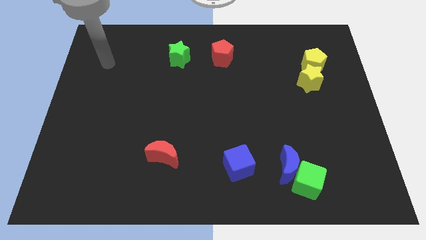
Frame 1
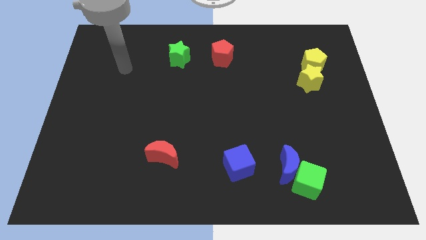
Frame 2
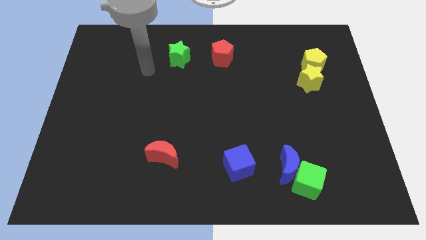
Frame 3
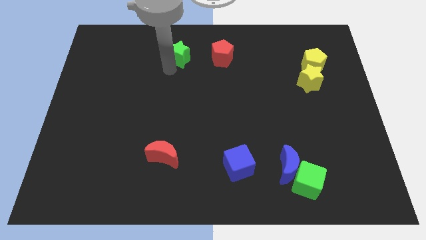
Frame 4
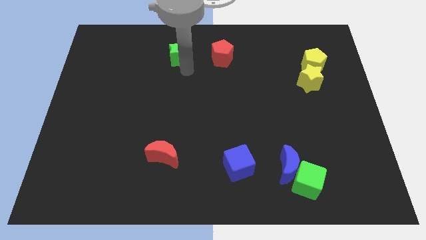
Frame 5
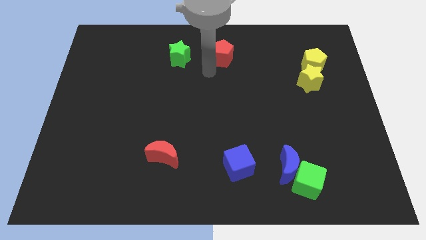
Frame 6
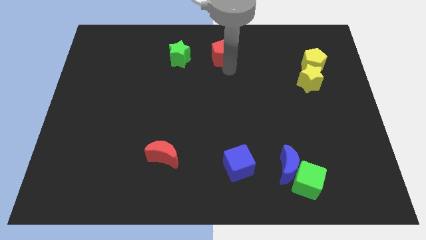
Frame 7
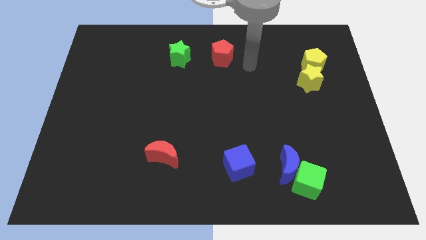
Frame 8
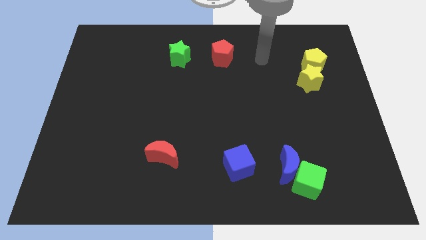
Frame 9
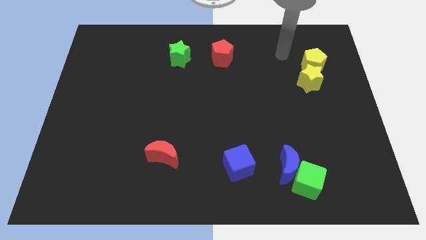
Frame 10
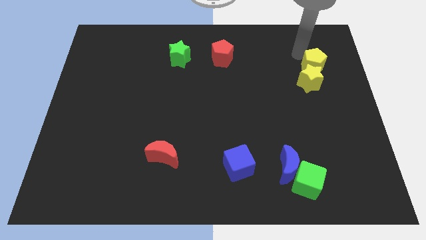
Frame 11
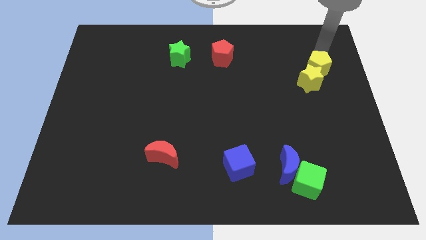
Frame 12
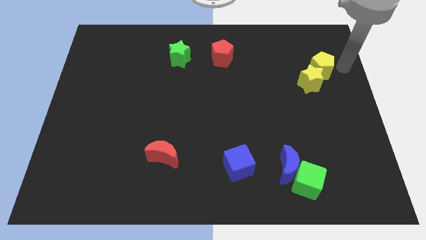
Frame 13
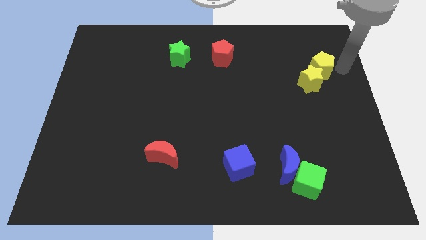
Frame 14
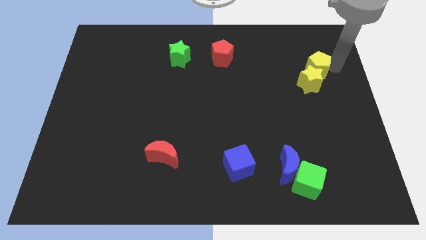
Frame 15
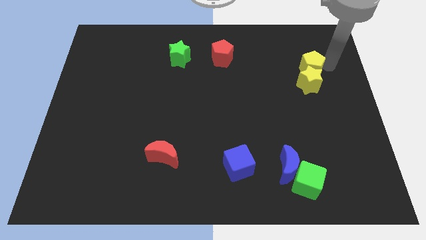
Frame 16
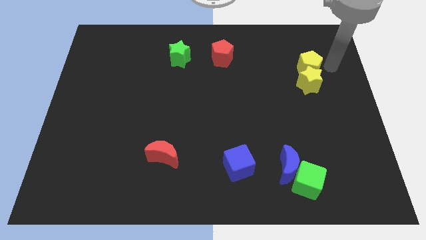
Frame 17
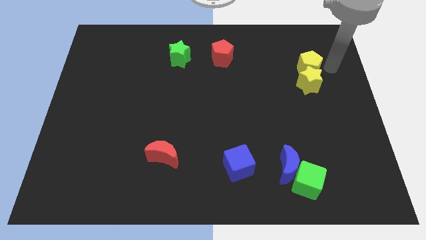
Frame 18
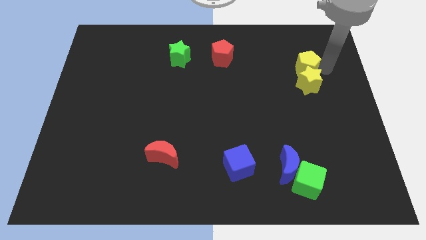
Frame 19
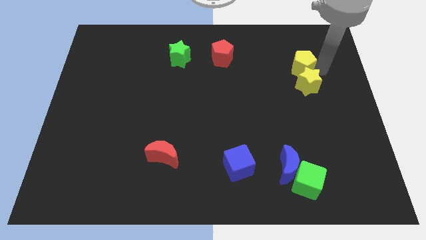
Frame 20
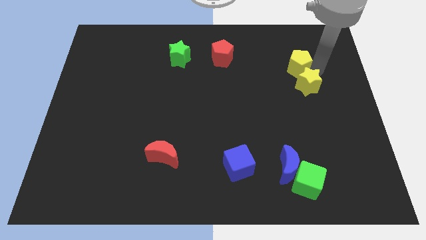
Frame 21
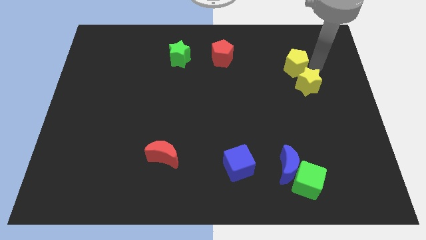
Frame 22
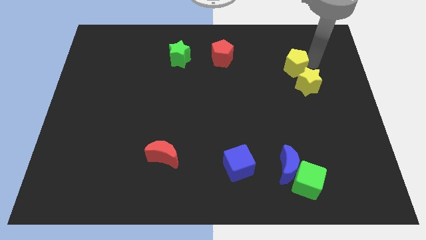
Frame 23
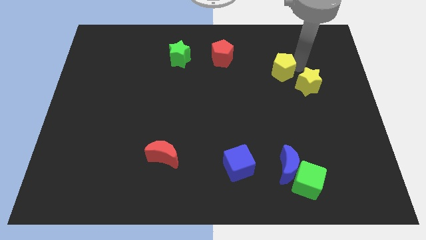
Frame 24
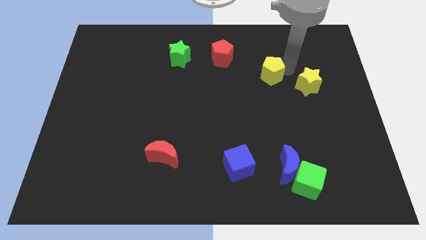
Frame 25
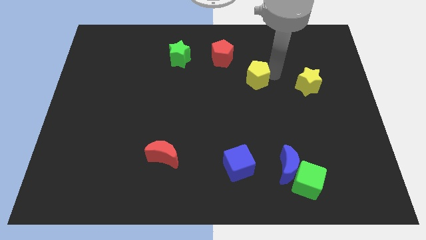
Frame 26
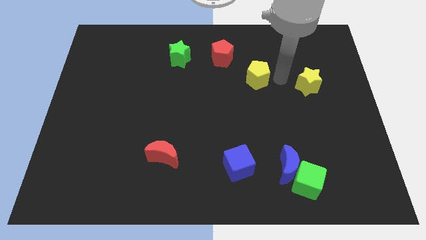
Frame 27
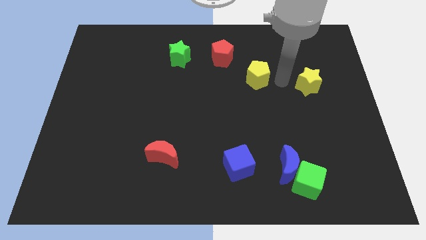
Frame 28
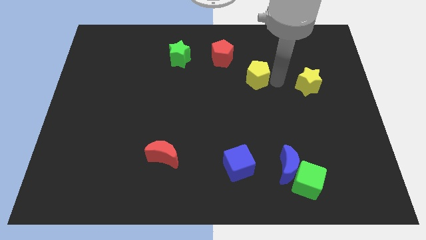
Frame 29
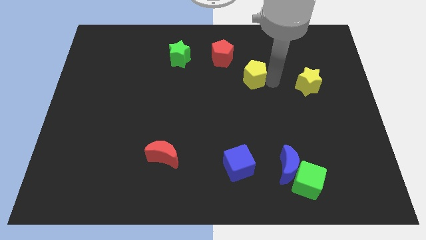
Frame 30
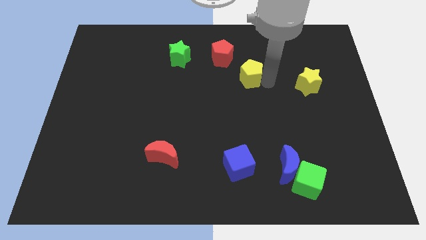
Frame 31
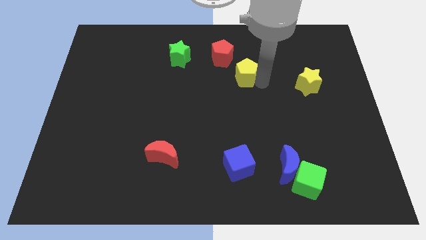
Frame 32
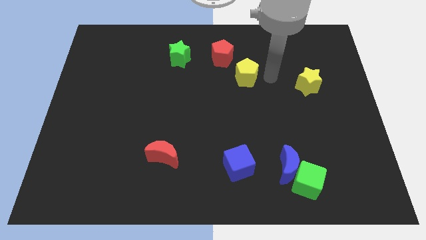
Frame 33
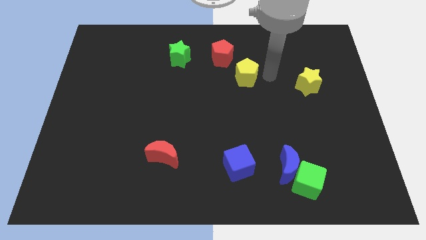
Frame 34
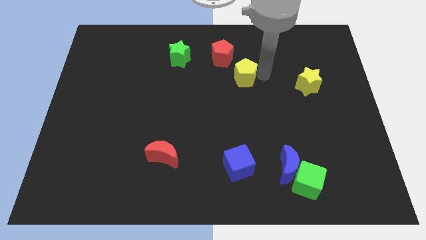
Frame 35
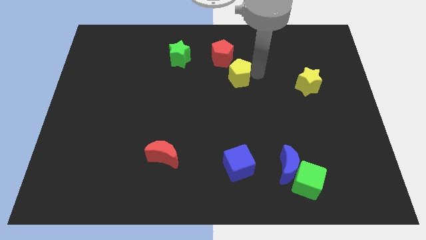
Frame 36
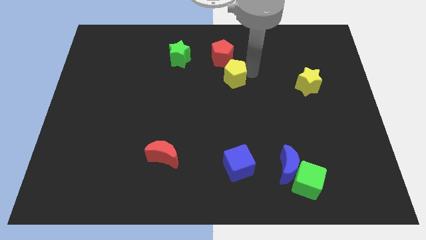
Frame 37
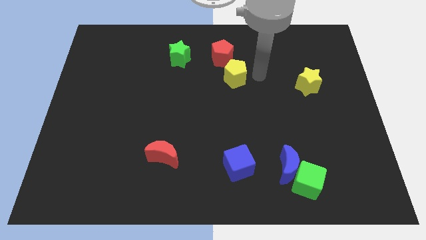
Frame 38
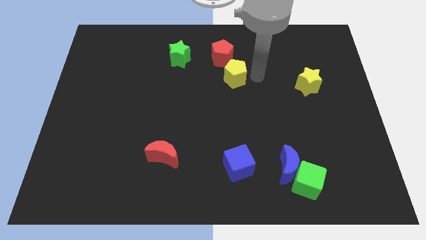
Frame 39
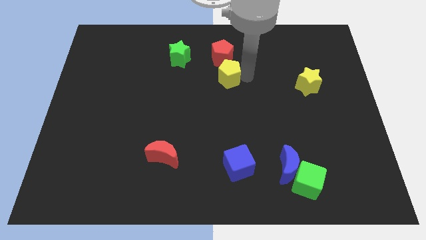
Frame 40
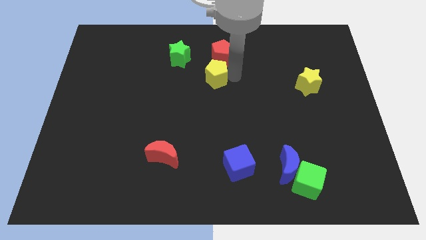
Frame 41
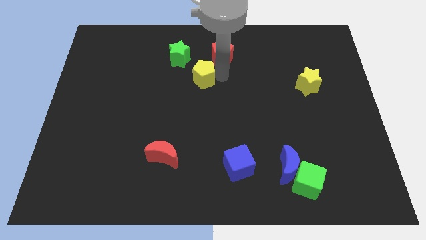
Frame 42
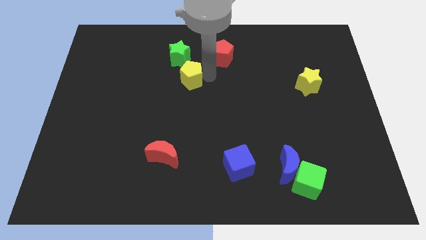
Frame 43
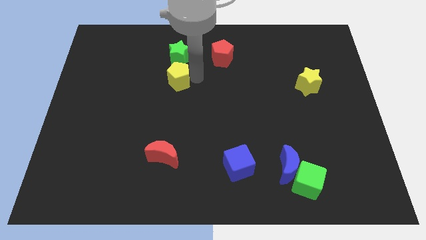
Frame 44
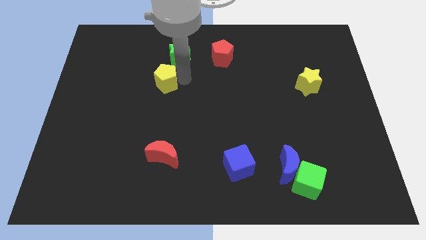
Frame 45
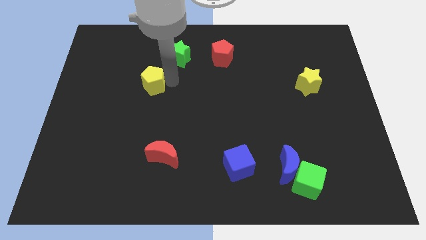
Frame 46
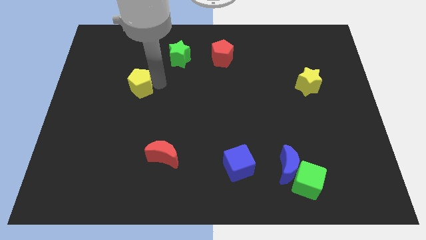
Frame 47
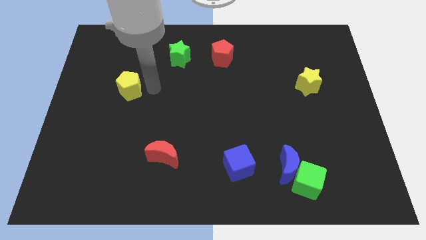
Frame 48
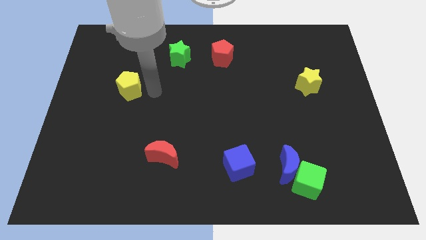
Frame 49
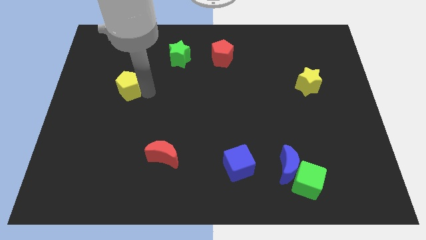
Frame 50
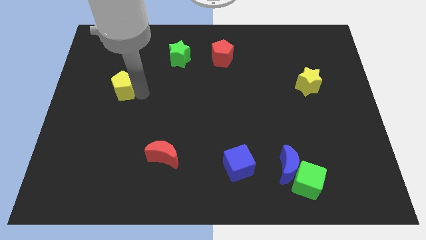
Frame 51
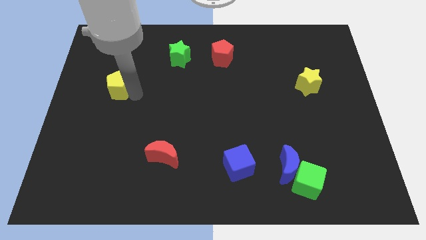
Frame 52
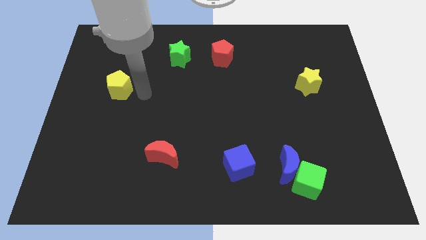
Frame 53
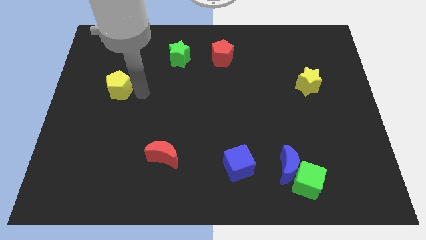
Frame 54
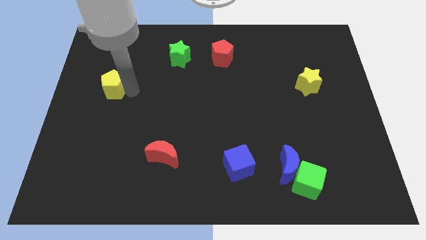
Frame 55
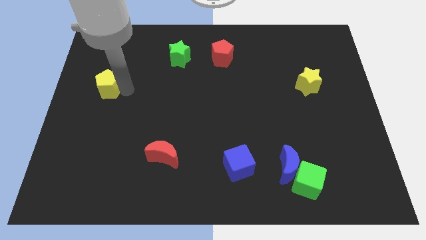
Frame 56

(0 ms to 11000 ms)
slide the yellow pentagon to the center left

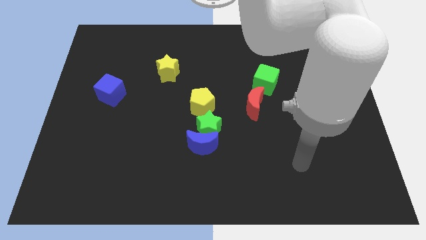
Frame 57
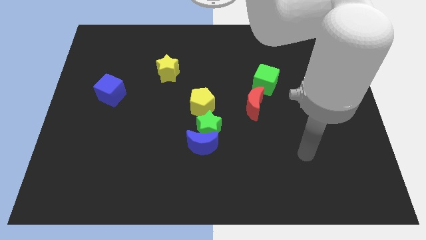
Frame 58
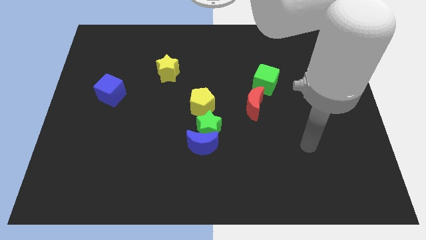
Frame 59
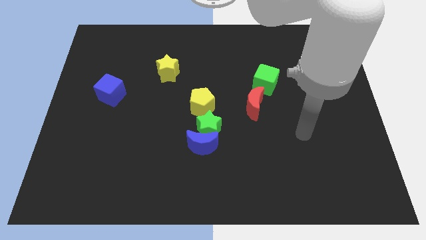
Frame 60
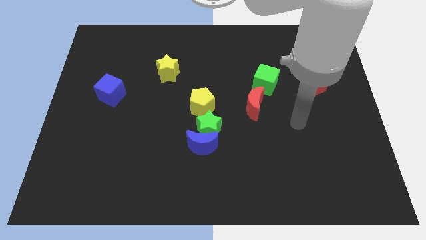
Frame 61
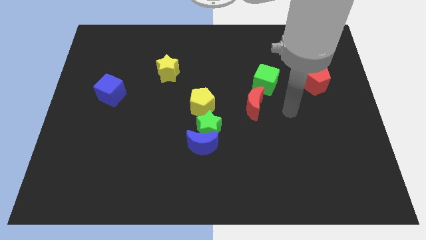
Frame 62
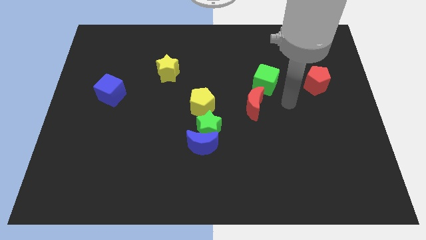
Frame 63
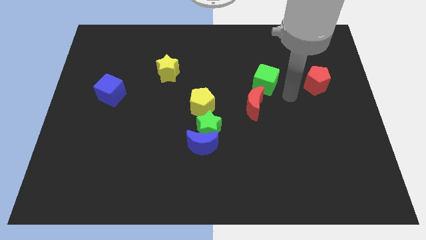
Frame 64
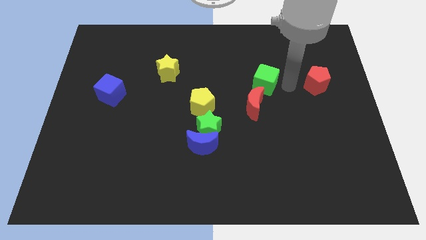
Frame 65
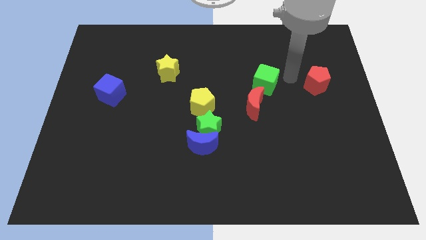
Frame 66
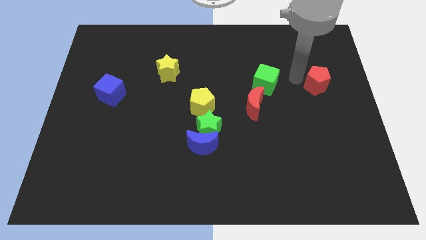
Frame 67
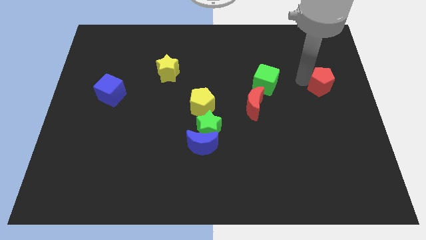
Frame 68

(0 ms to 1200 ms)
move the red pentagon to the right side

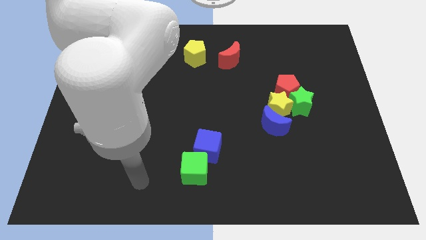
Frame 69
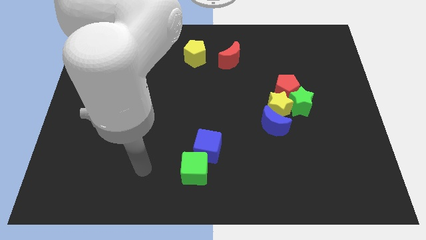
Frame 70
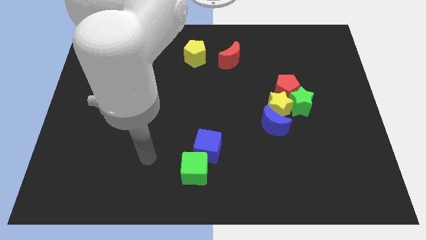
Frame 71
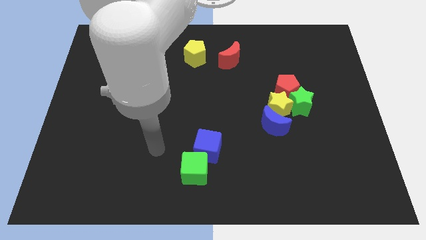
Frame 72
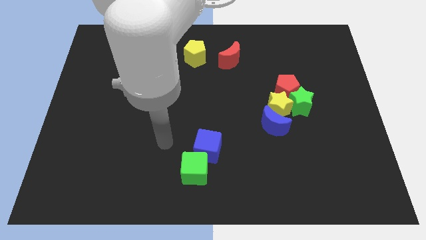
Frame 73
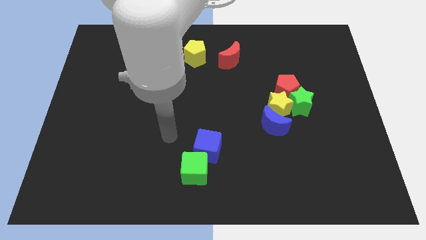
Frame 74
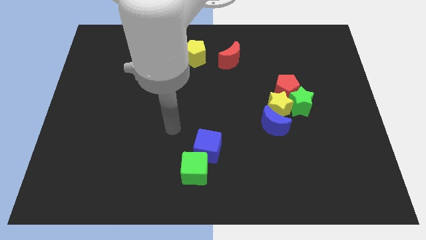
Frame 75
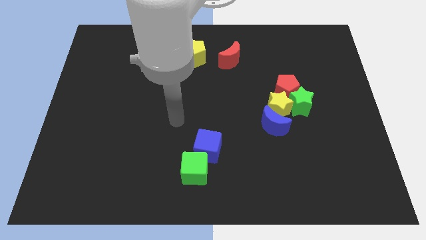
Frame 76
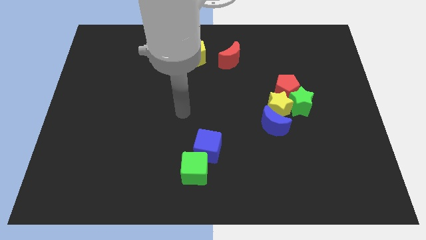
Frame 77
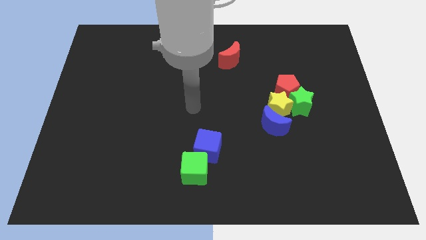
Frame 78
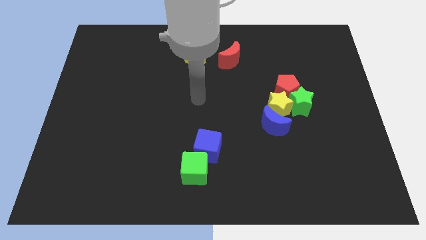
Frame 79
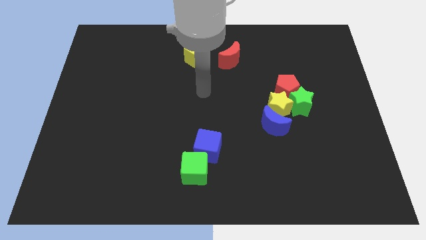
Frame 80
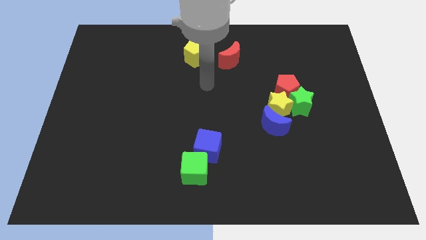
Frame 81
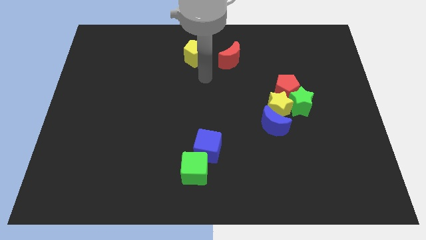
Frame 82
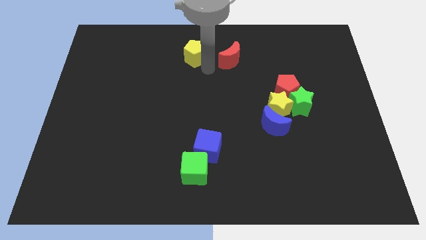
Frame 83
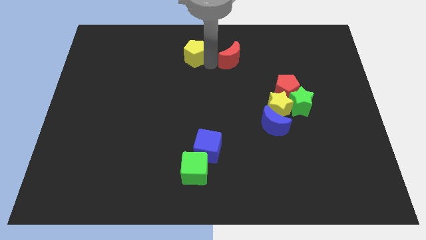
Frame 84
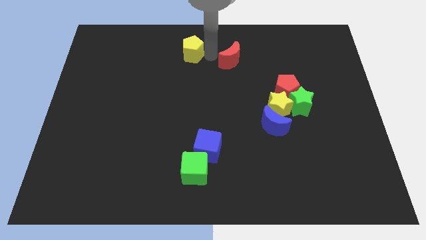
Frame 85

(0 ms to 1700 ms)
move the yellow pentagon to the top side
